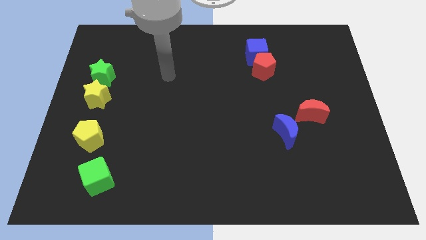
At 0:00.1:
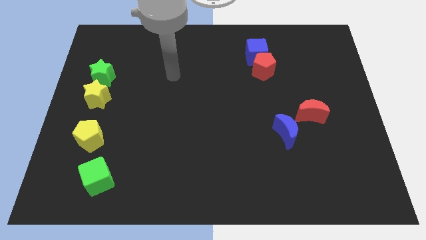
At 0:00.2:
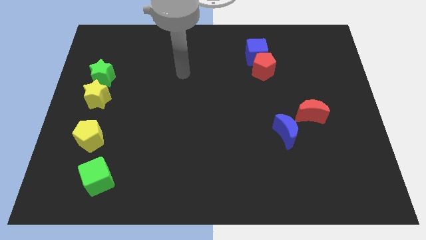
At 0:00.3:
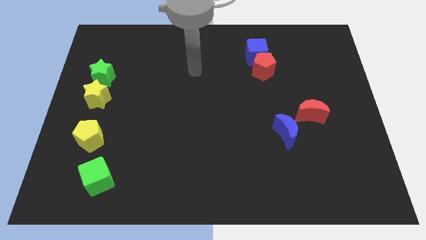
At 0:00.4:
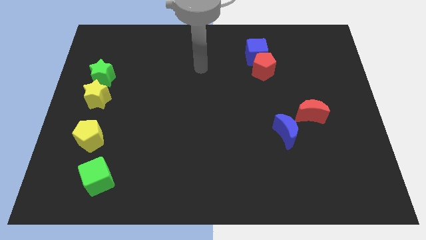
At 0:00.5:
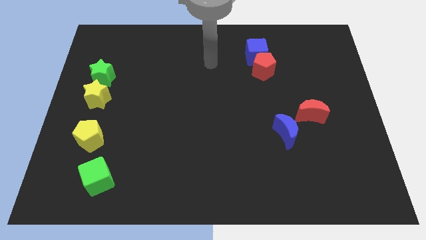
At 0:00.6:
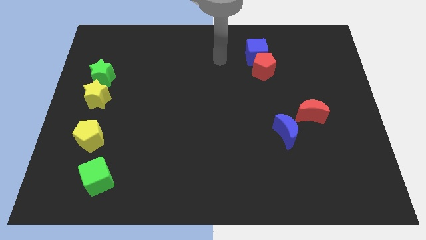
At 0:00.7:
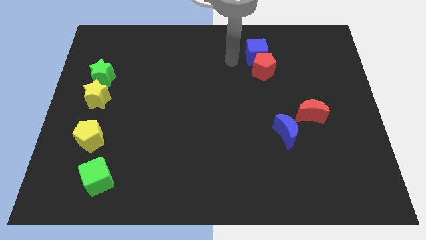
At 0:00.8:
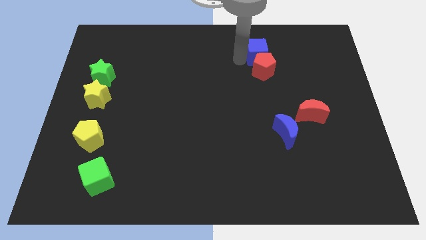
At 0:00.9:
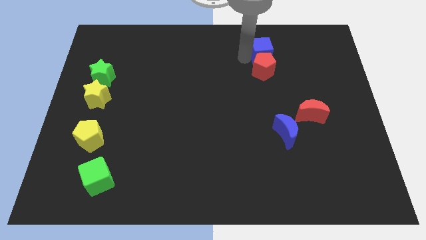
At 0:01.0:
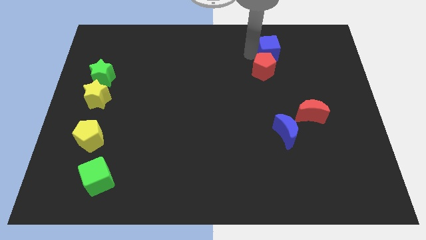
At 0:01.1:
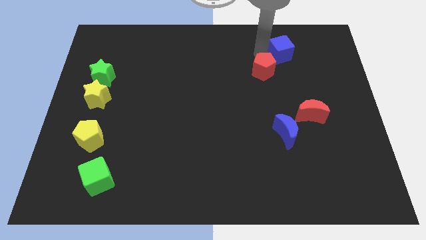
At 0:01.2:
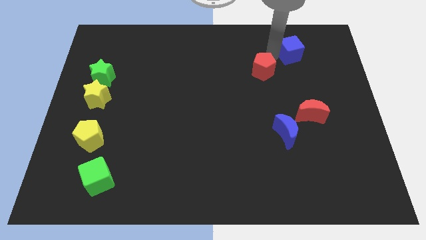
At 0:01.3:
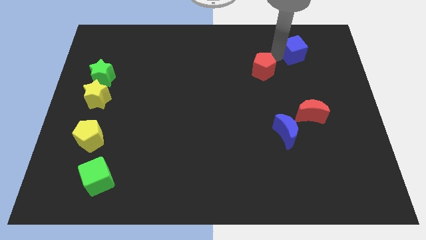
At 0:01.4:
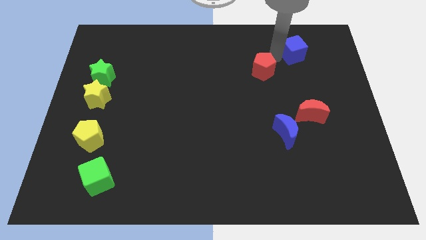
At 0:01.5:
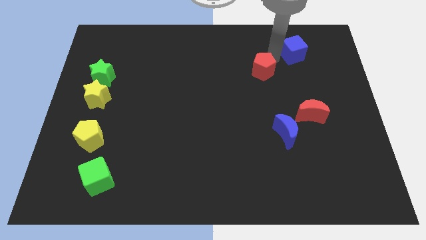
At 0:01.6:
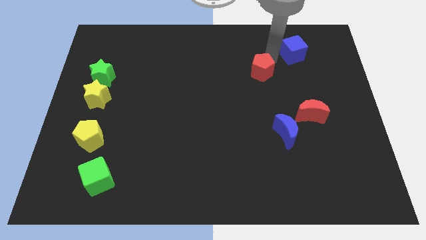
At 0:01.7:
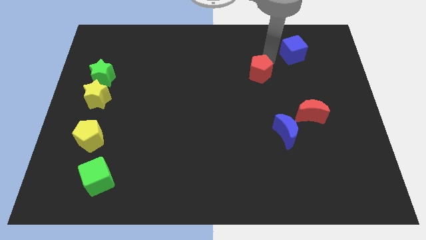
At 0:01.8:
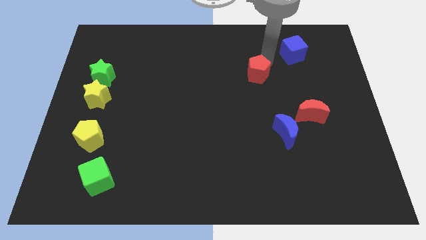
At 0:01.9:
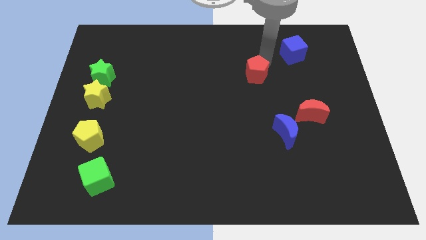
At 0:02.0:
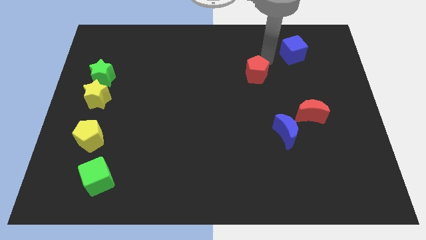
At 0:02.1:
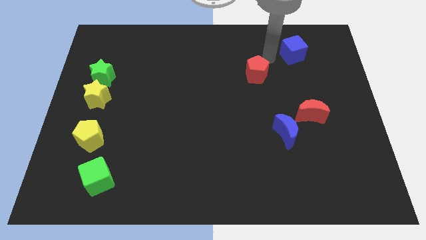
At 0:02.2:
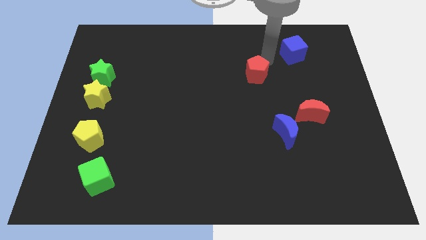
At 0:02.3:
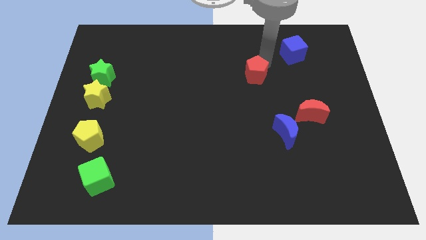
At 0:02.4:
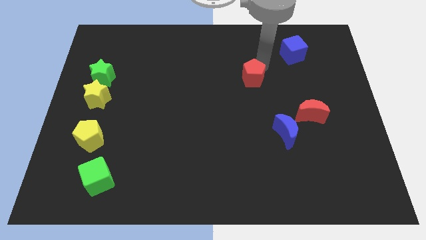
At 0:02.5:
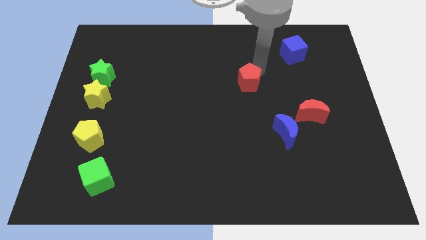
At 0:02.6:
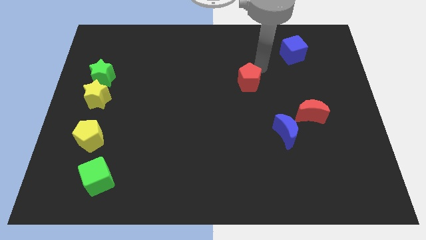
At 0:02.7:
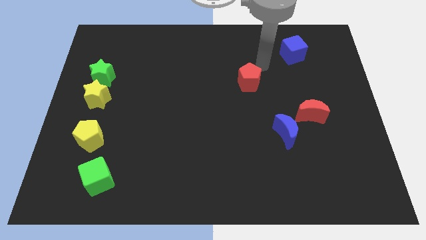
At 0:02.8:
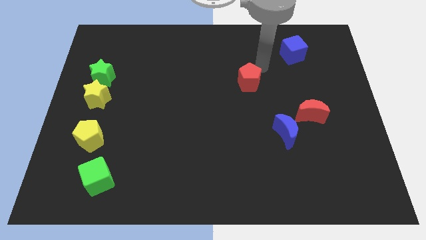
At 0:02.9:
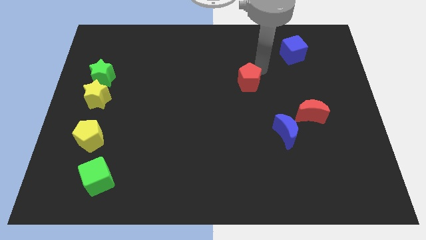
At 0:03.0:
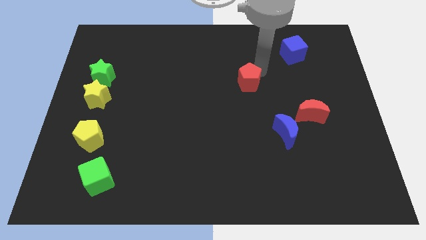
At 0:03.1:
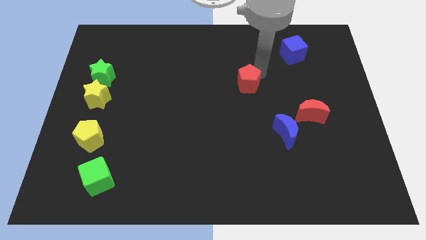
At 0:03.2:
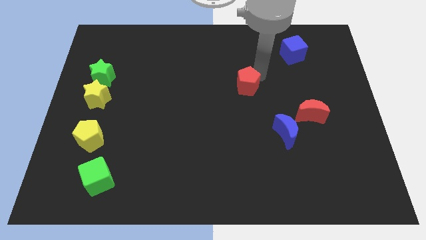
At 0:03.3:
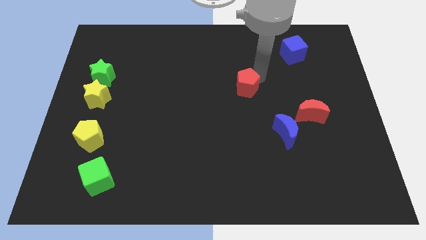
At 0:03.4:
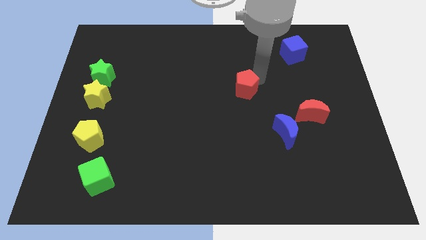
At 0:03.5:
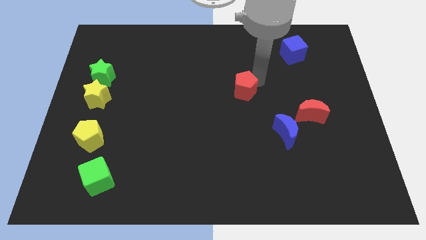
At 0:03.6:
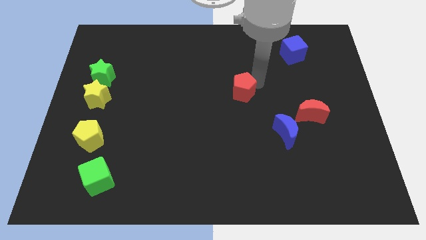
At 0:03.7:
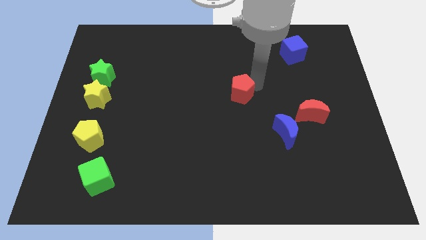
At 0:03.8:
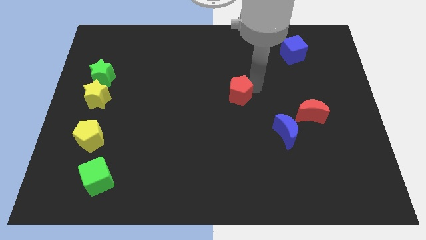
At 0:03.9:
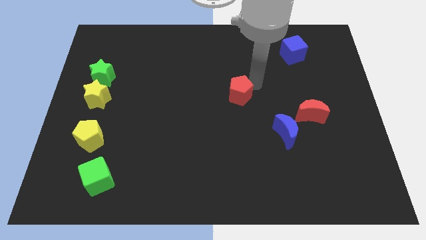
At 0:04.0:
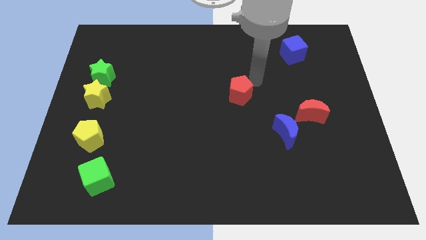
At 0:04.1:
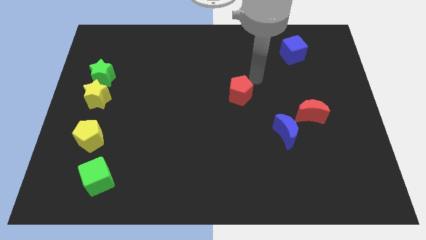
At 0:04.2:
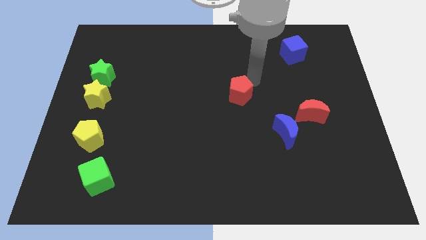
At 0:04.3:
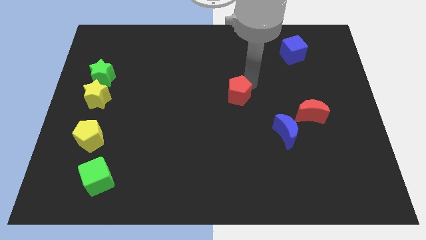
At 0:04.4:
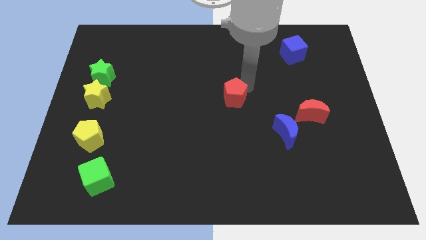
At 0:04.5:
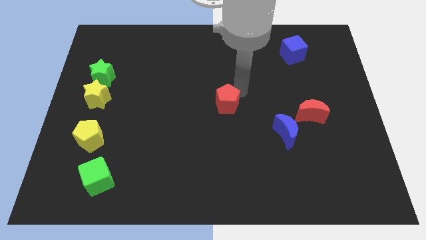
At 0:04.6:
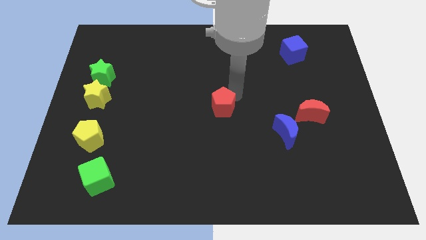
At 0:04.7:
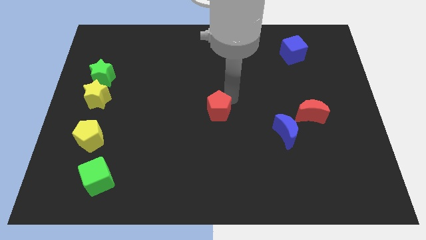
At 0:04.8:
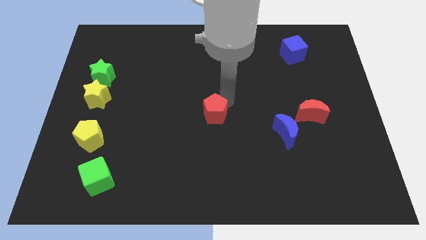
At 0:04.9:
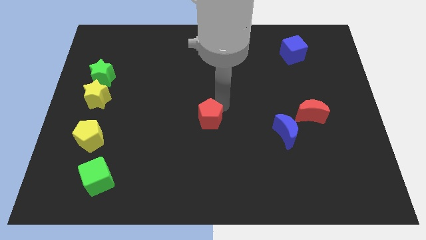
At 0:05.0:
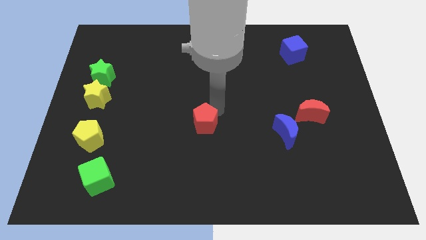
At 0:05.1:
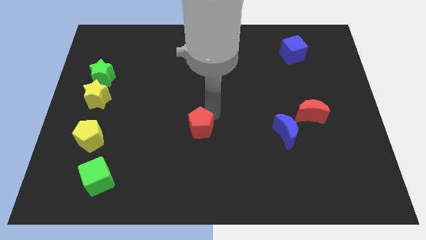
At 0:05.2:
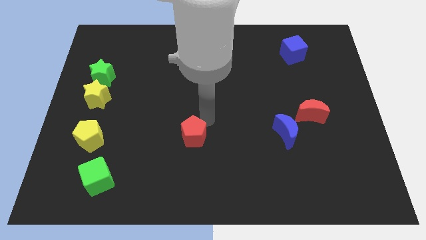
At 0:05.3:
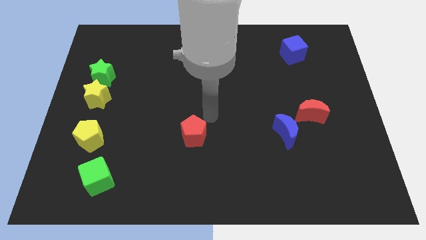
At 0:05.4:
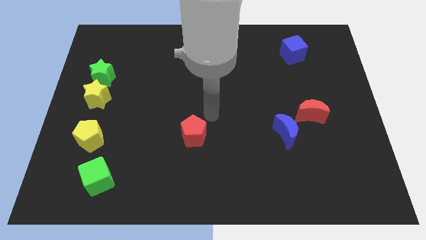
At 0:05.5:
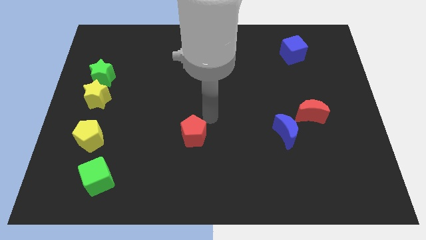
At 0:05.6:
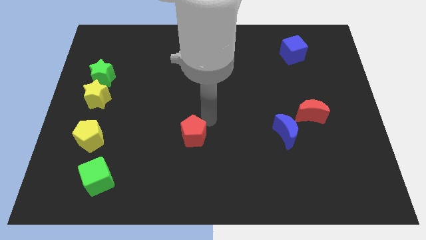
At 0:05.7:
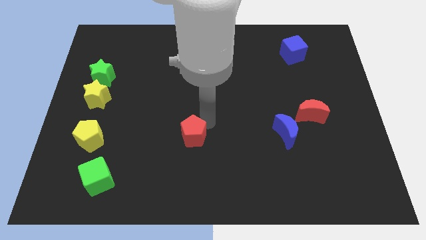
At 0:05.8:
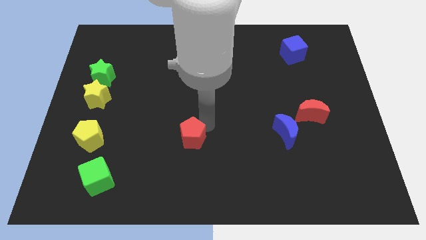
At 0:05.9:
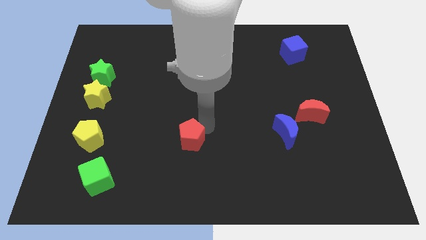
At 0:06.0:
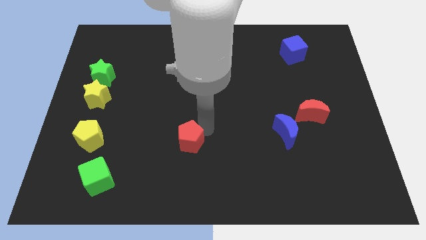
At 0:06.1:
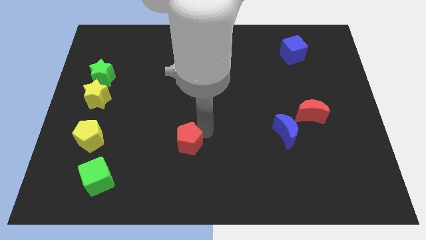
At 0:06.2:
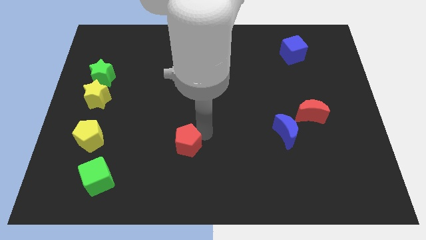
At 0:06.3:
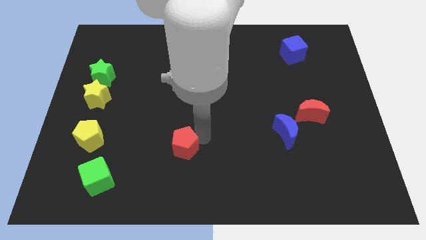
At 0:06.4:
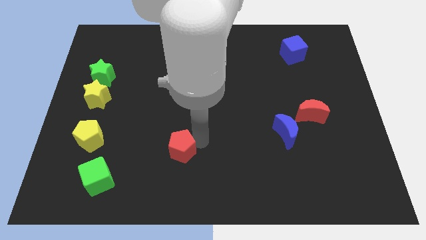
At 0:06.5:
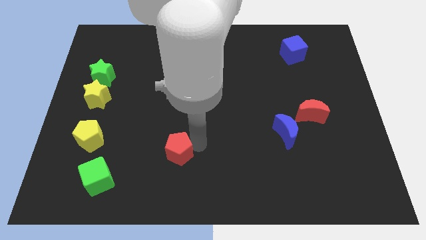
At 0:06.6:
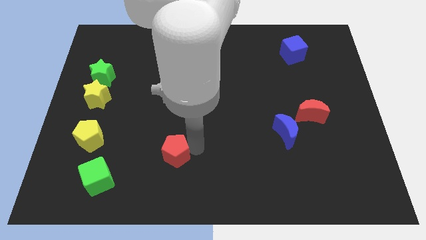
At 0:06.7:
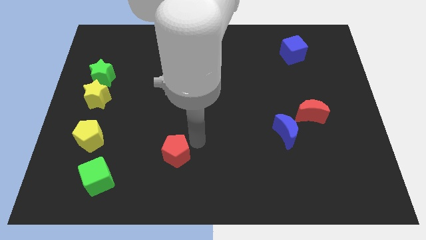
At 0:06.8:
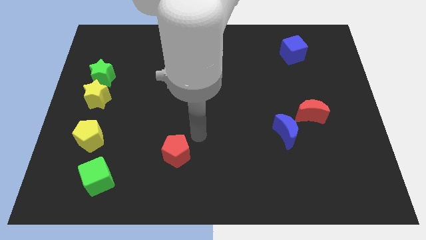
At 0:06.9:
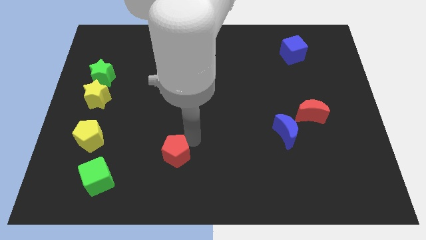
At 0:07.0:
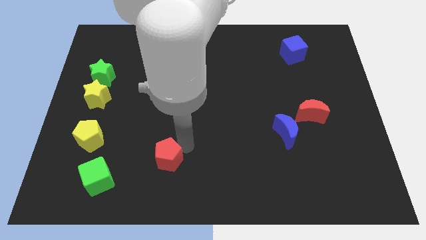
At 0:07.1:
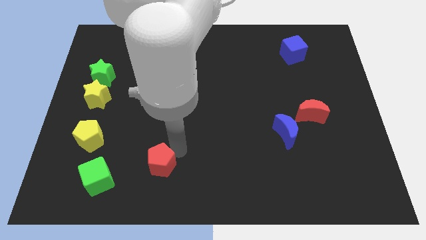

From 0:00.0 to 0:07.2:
push the red pentagon to the right of the green cube

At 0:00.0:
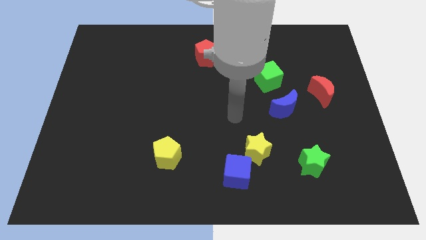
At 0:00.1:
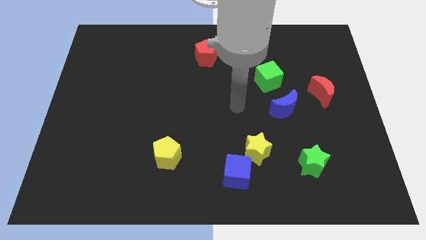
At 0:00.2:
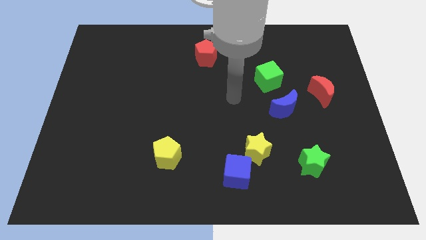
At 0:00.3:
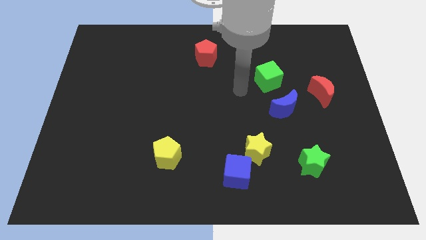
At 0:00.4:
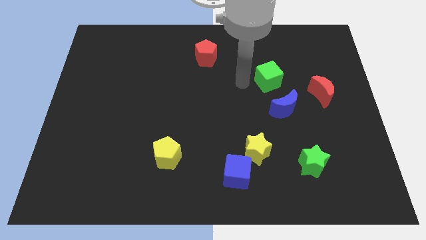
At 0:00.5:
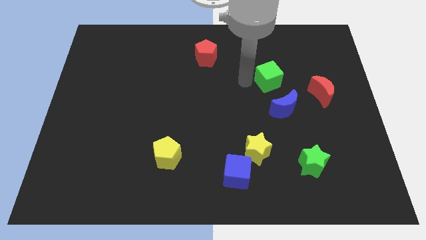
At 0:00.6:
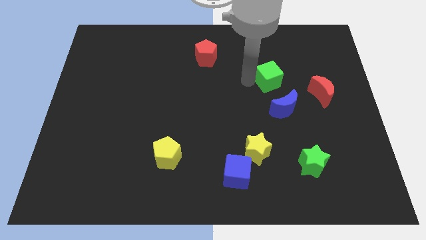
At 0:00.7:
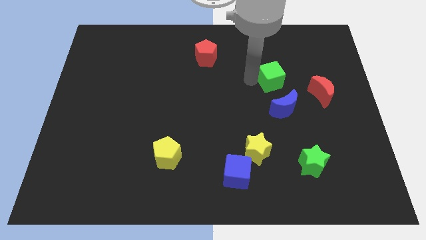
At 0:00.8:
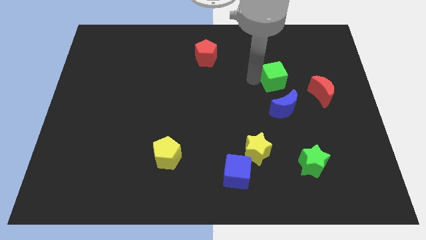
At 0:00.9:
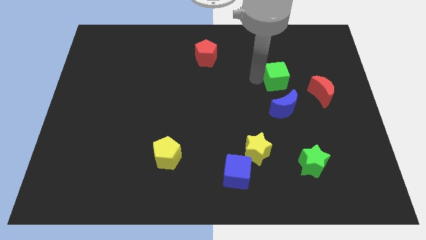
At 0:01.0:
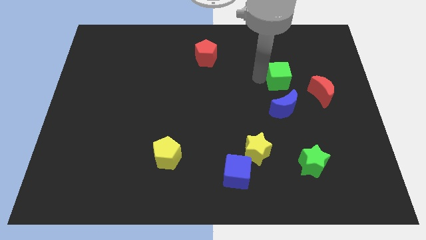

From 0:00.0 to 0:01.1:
slide the green cube to the top left side of the red moon
